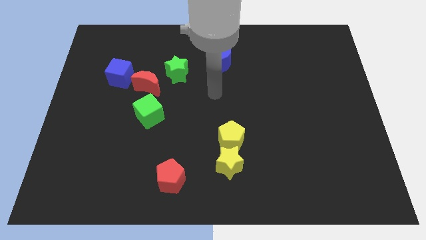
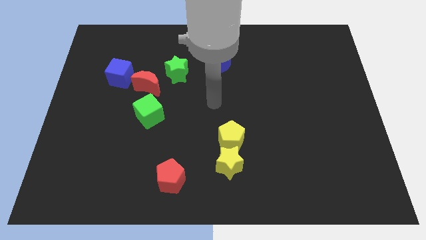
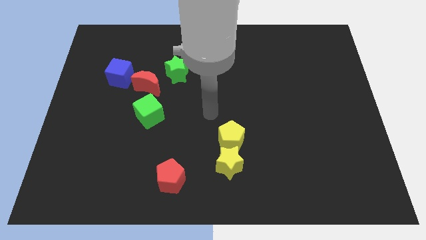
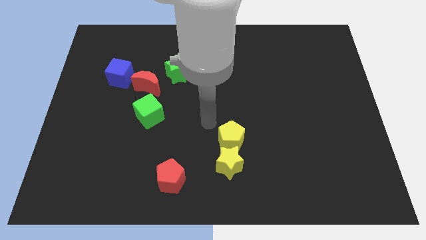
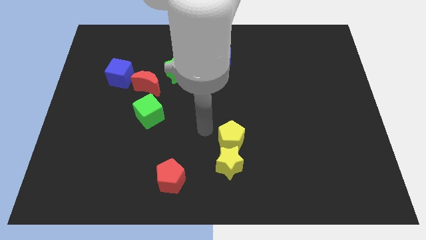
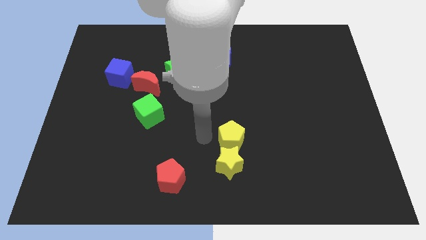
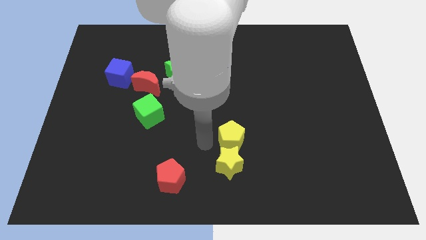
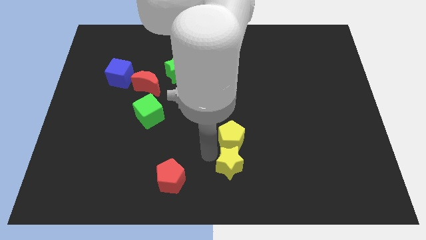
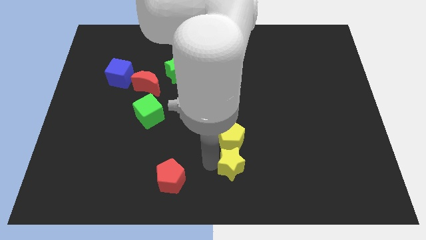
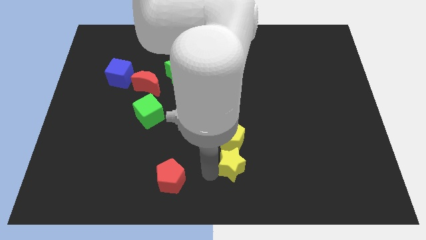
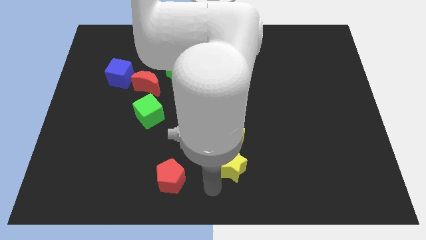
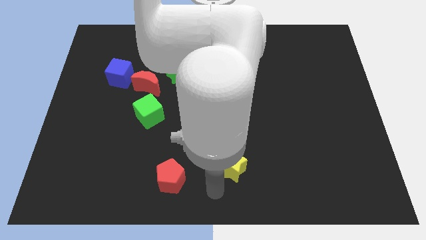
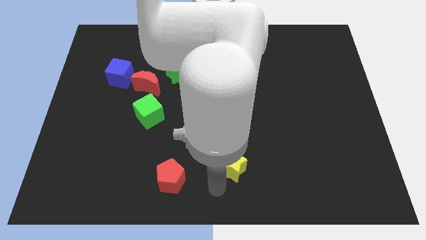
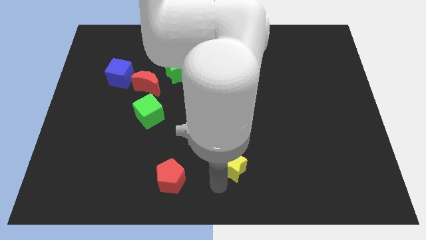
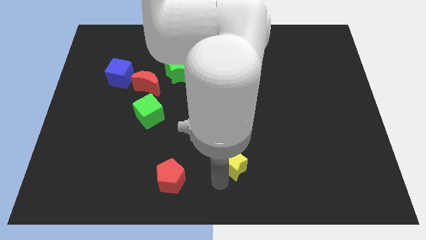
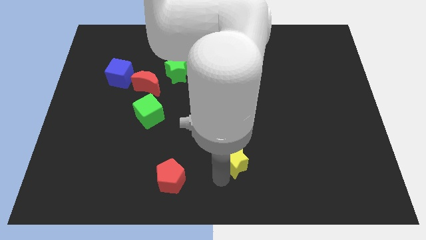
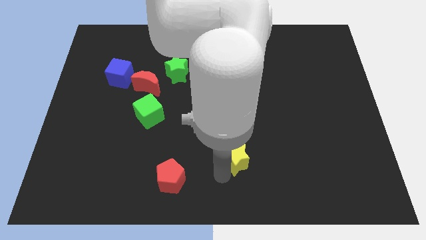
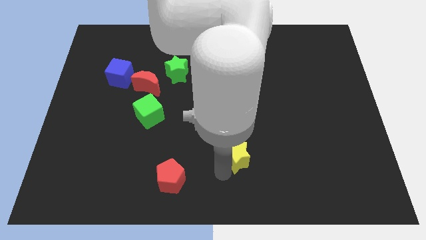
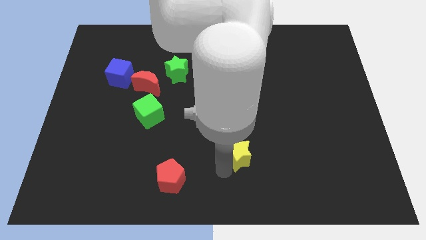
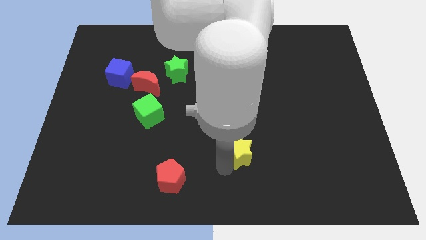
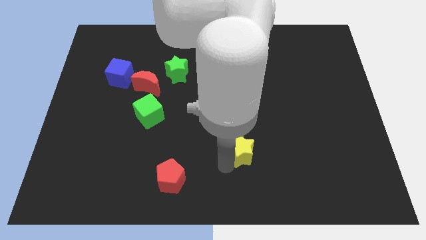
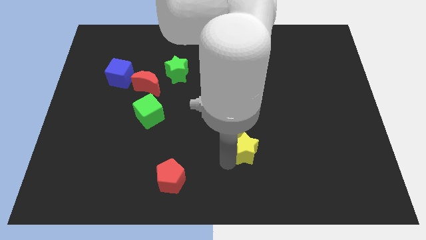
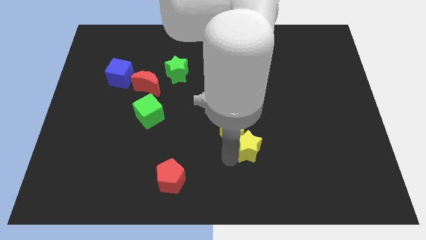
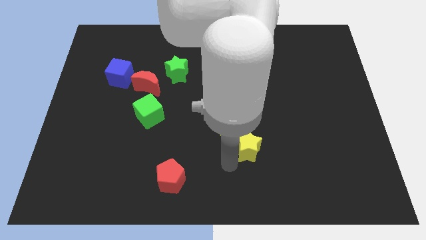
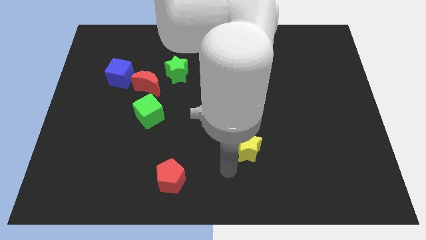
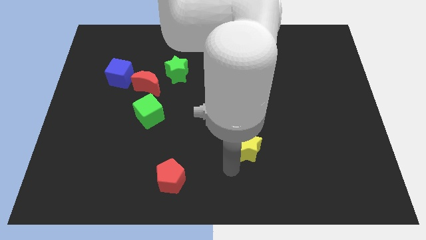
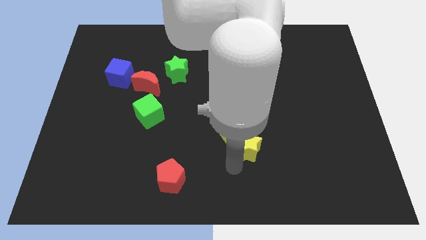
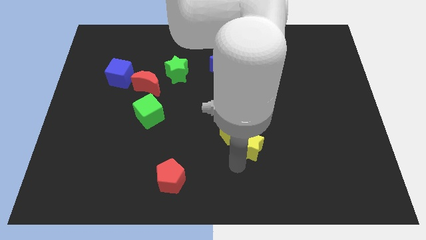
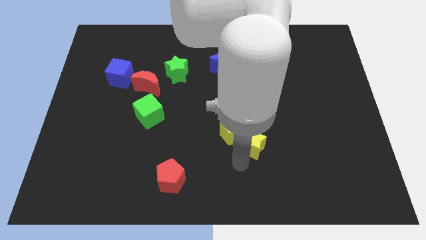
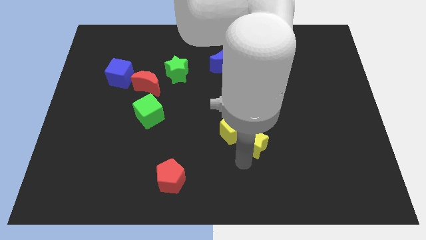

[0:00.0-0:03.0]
push the yellow star upwards and then right somewhat

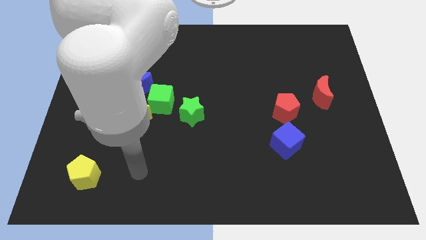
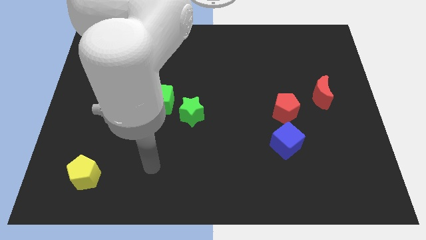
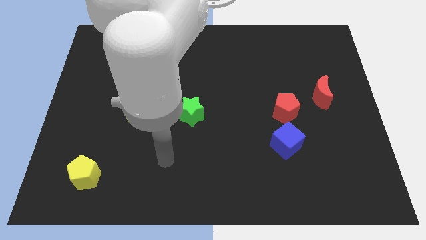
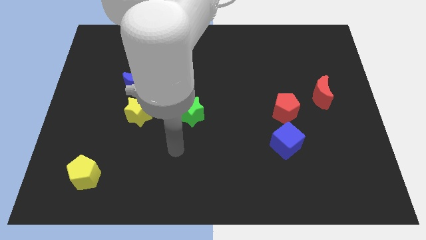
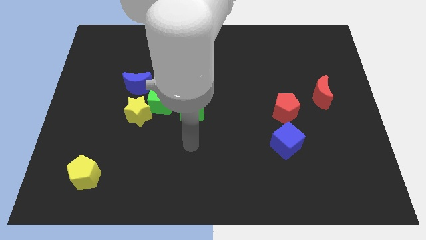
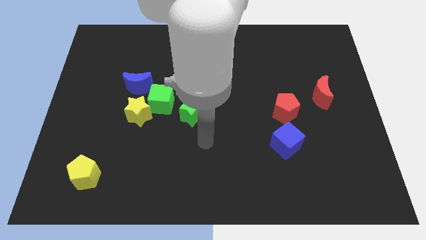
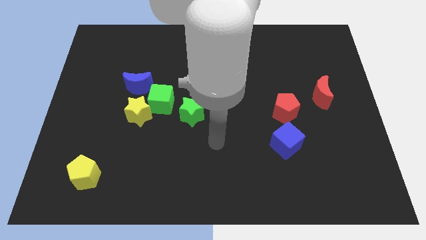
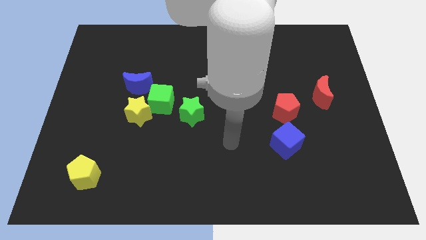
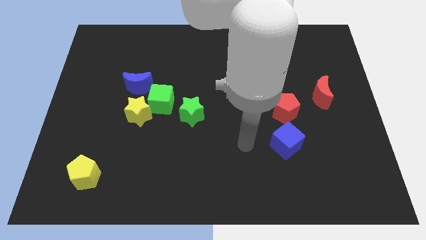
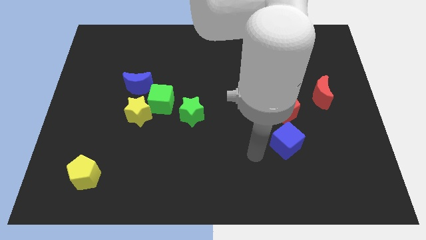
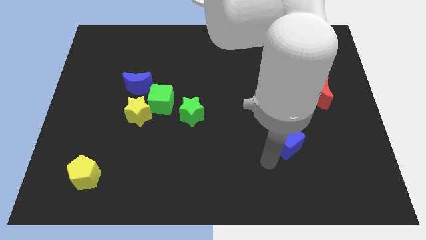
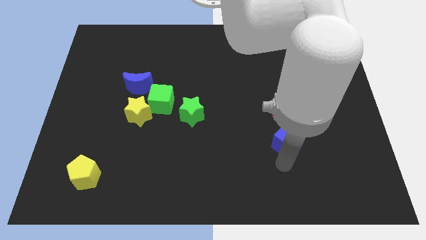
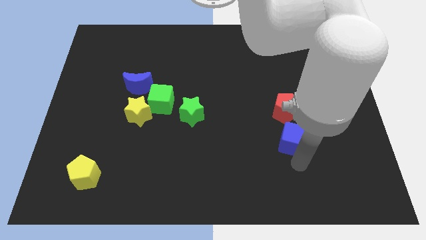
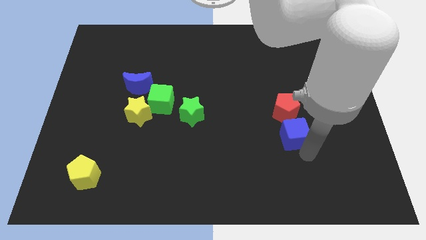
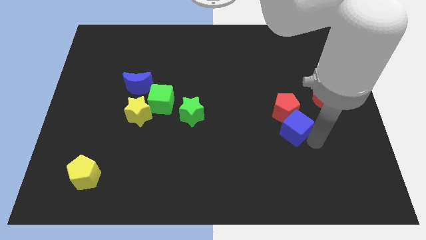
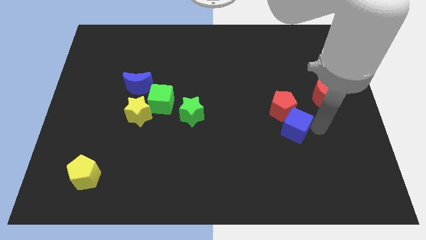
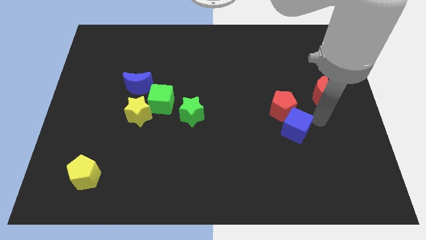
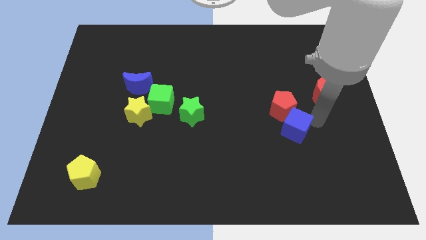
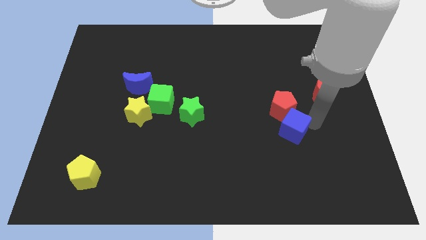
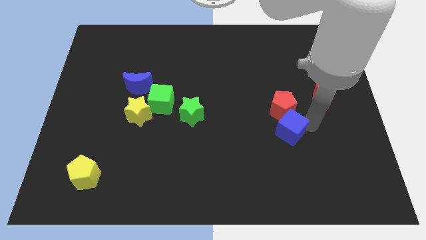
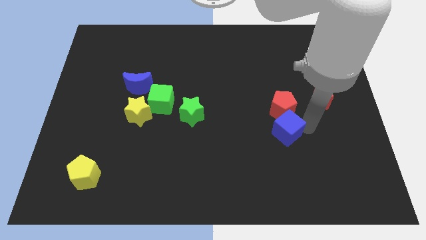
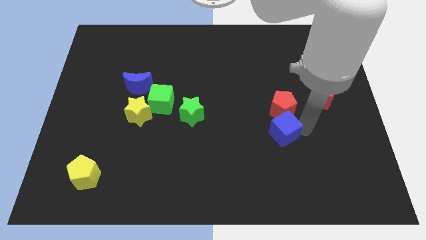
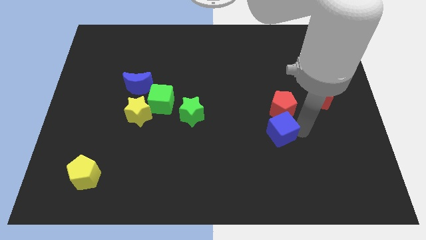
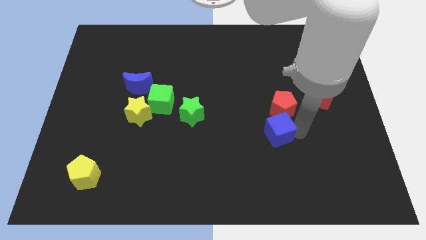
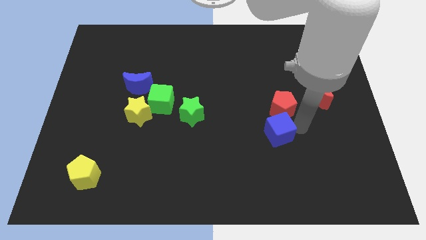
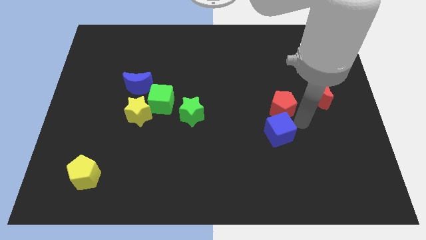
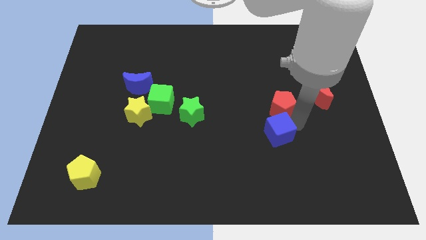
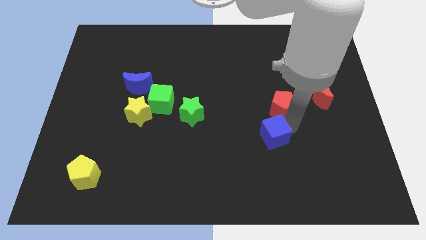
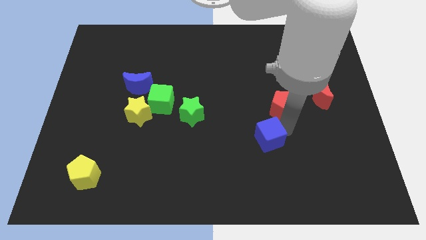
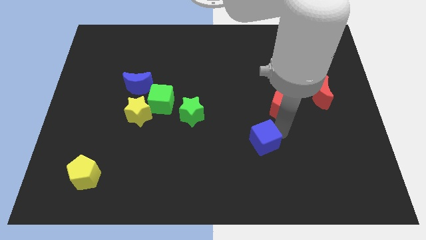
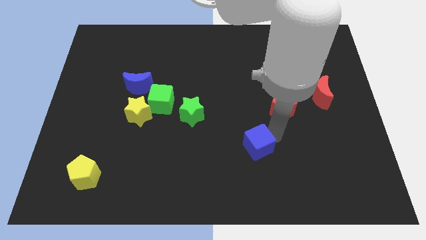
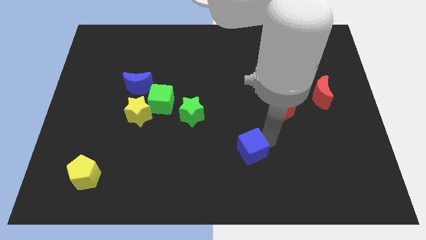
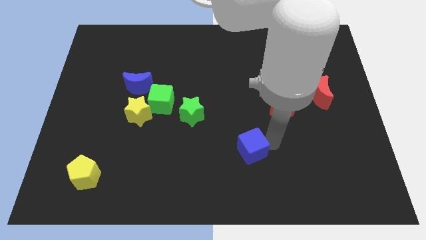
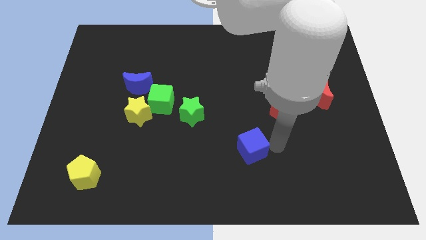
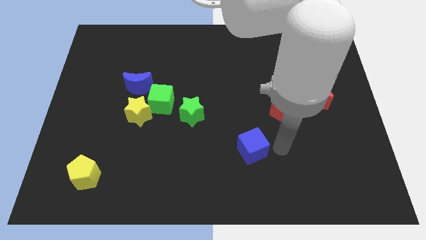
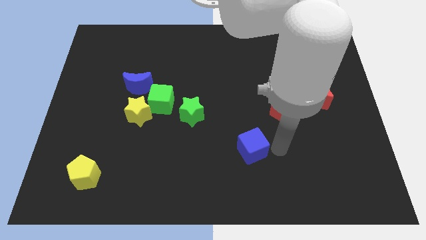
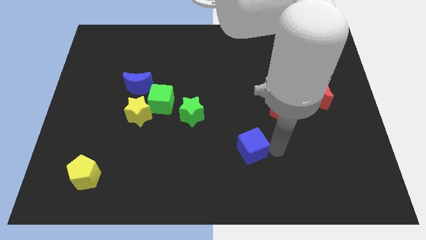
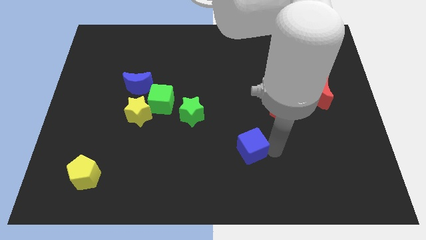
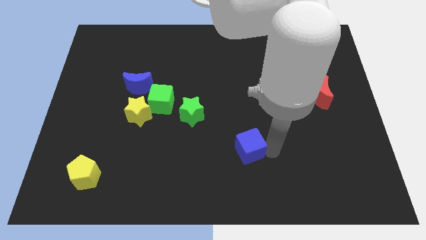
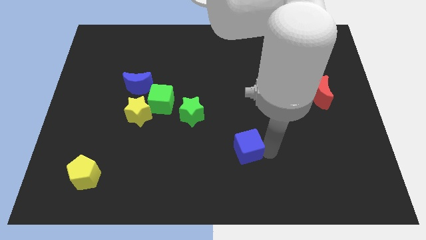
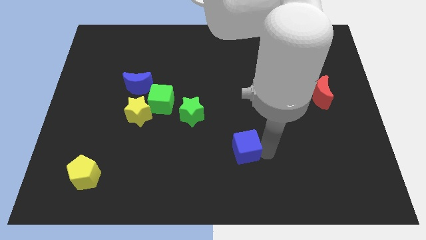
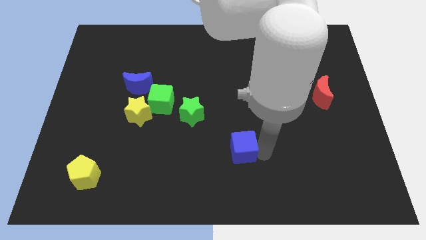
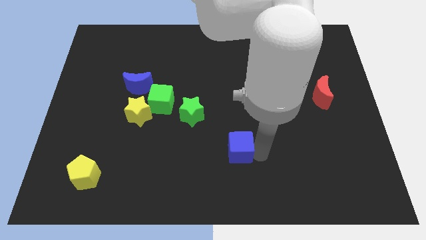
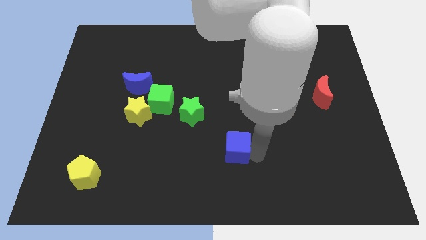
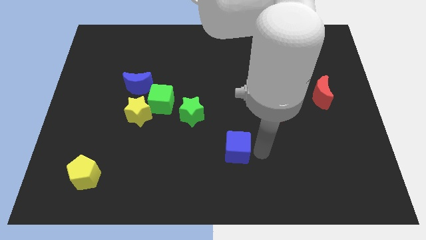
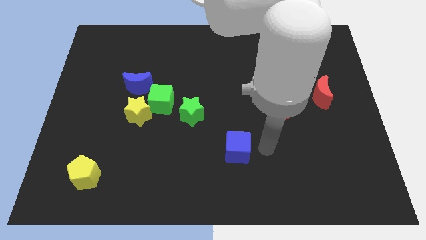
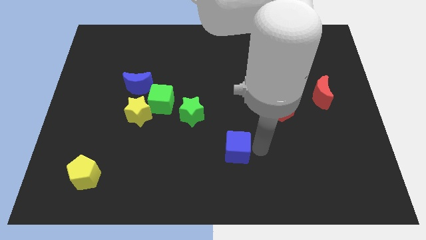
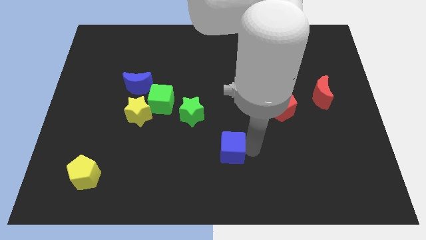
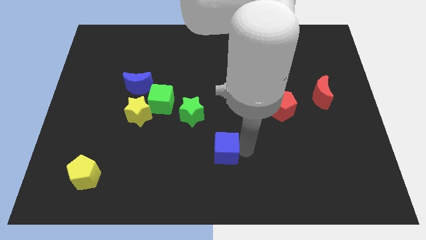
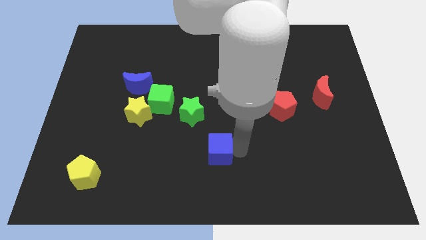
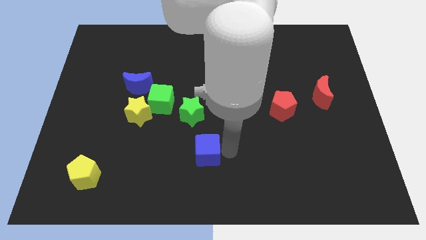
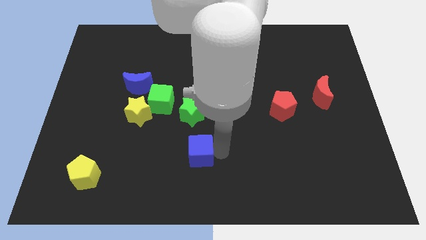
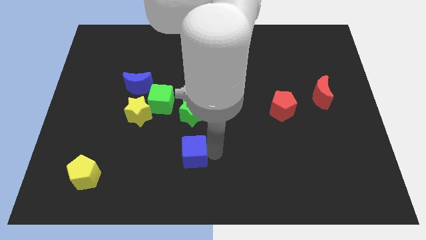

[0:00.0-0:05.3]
push the blue cube to the left
